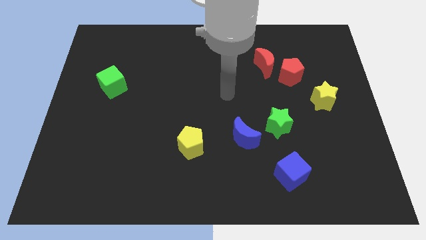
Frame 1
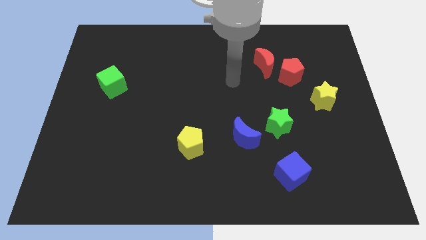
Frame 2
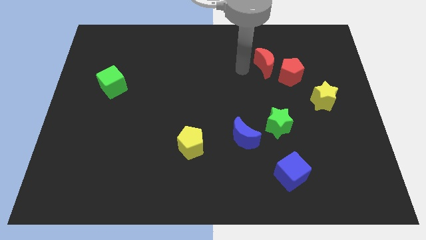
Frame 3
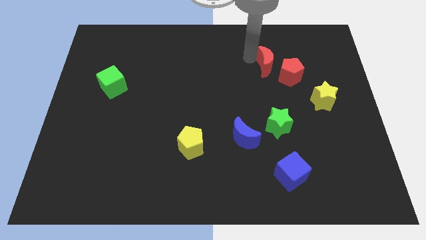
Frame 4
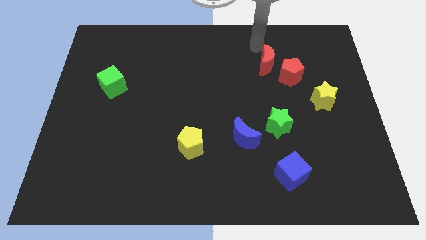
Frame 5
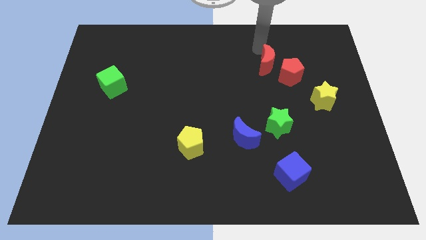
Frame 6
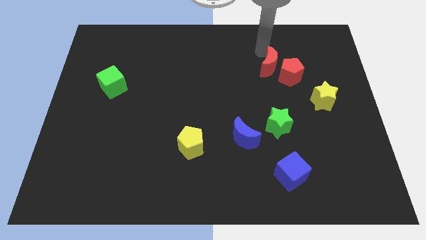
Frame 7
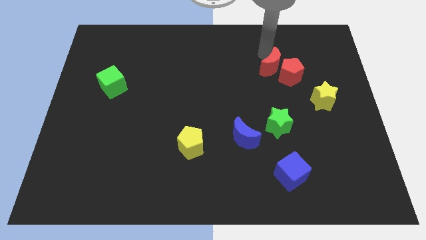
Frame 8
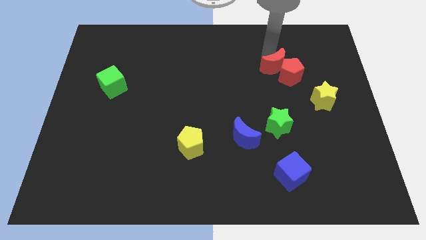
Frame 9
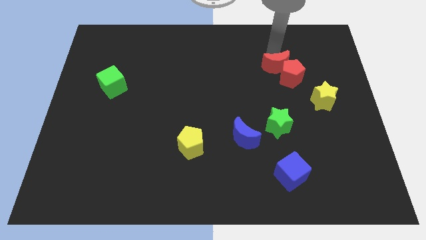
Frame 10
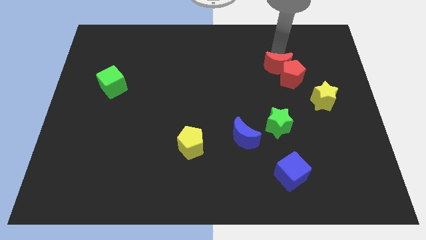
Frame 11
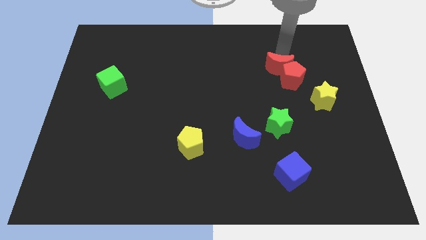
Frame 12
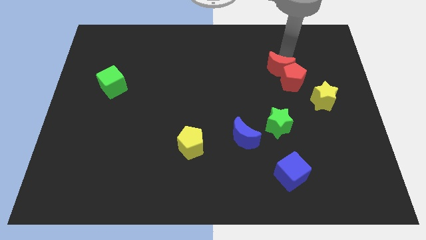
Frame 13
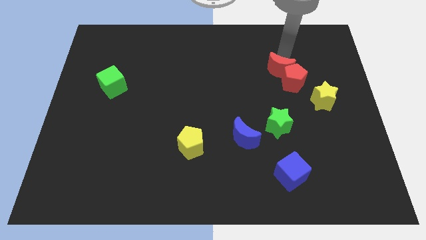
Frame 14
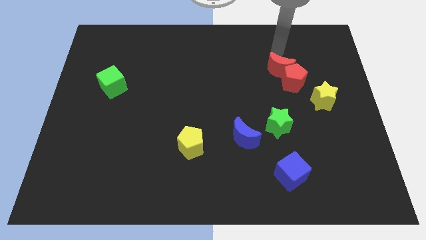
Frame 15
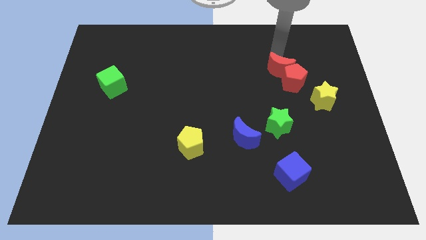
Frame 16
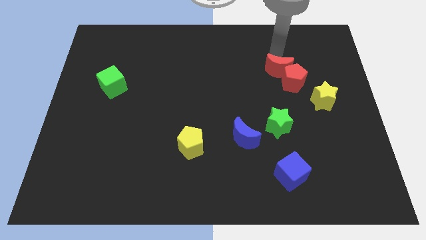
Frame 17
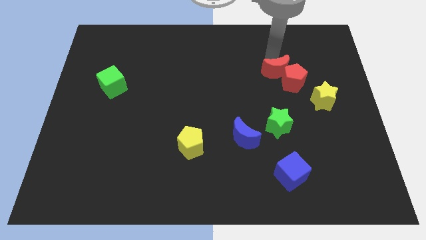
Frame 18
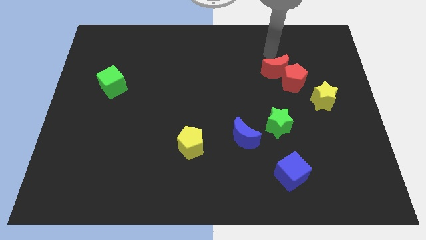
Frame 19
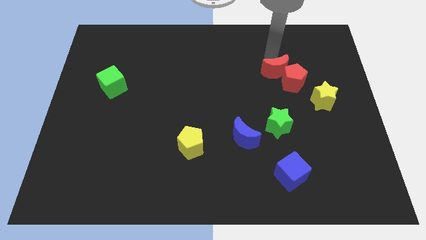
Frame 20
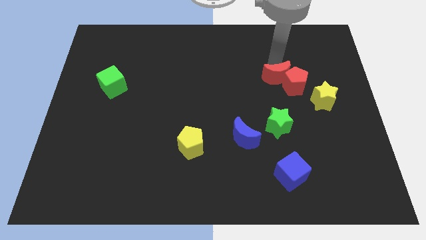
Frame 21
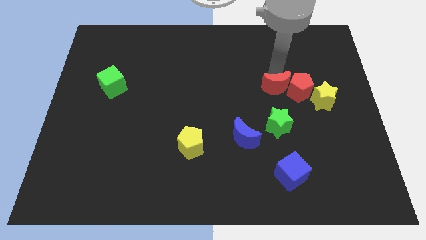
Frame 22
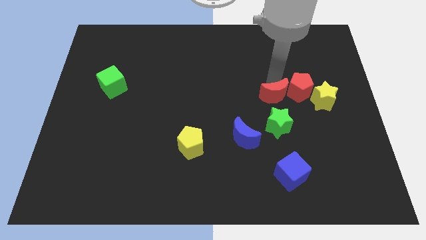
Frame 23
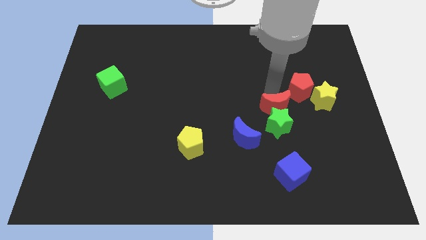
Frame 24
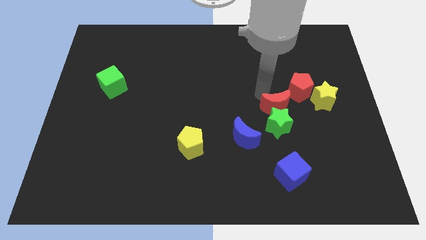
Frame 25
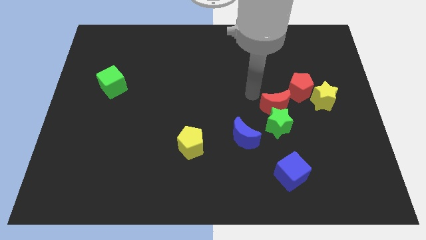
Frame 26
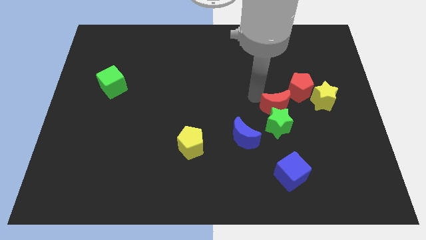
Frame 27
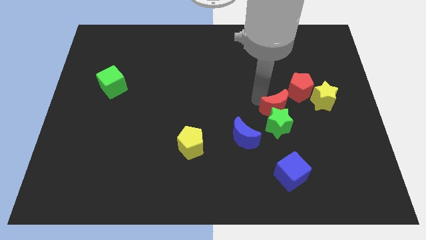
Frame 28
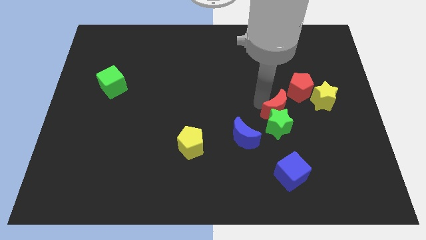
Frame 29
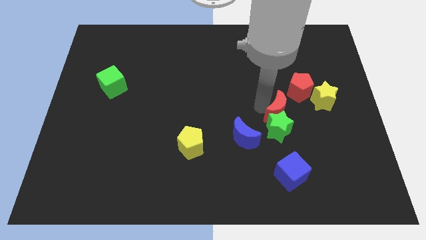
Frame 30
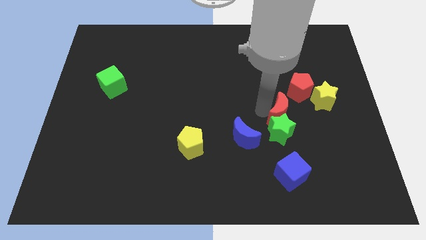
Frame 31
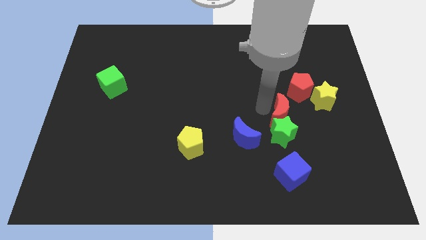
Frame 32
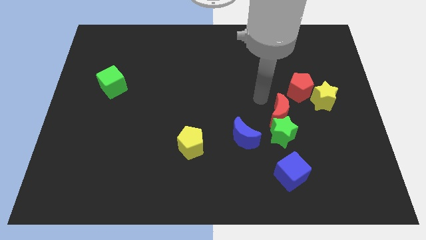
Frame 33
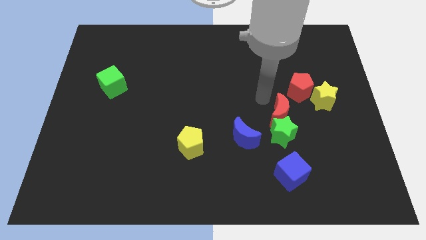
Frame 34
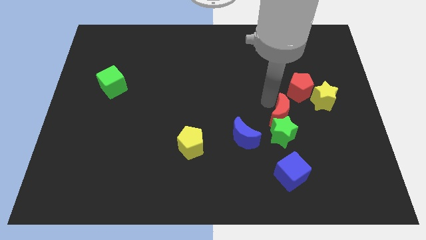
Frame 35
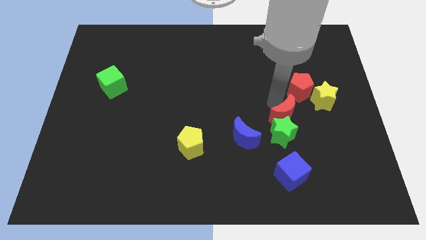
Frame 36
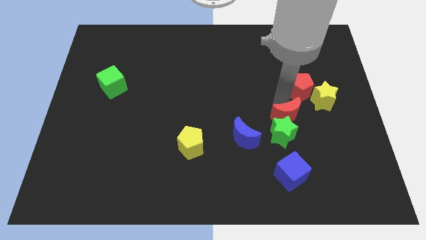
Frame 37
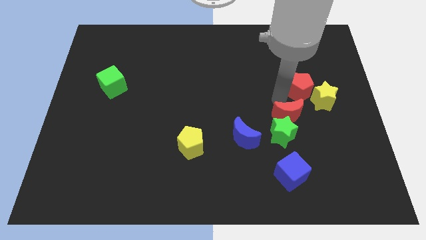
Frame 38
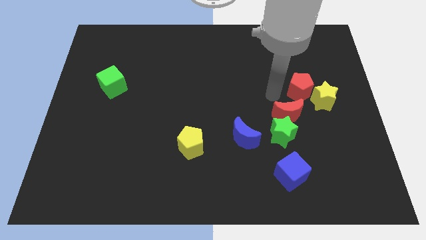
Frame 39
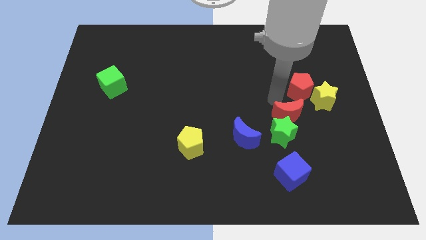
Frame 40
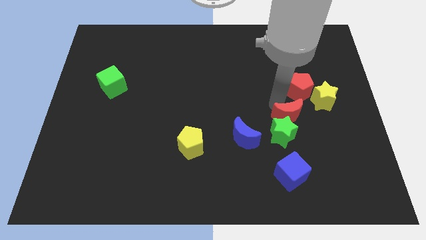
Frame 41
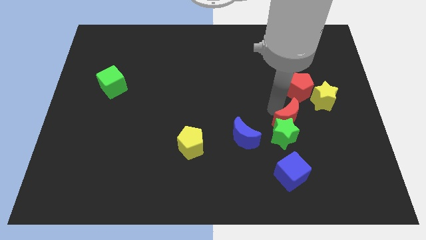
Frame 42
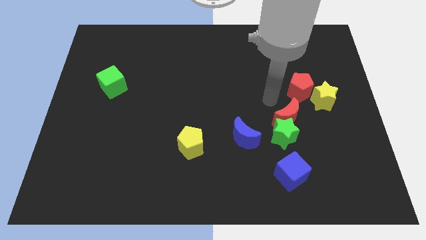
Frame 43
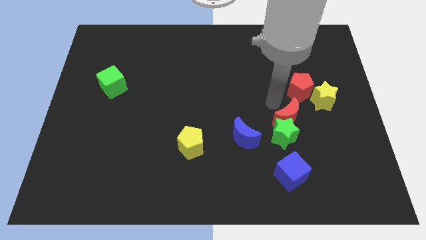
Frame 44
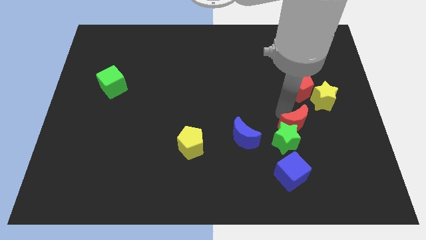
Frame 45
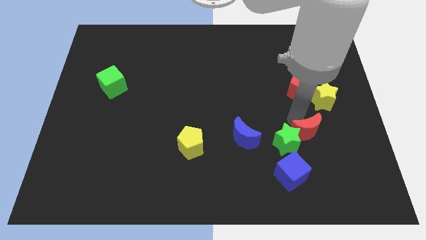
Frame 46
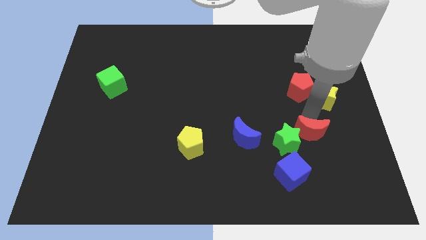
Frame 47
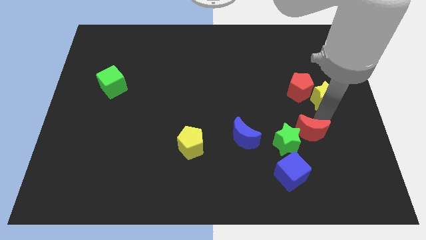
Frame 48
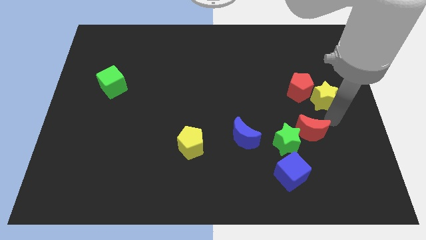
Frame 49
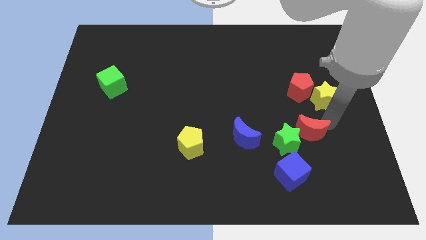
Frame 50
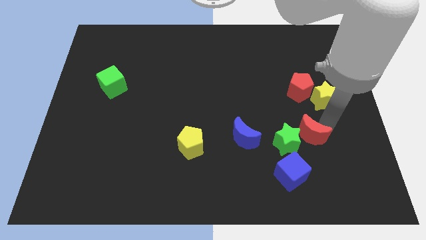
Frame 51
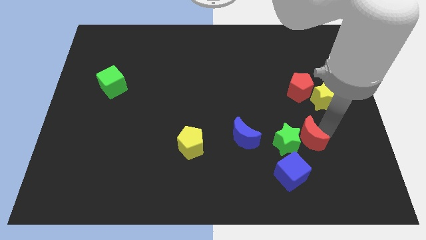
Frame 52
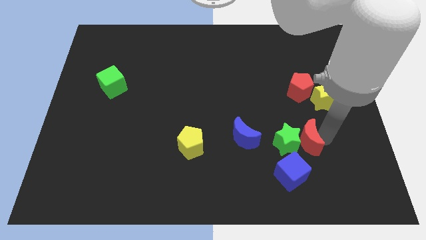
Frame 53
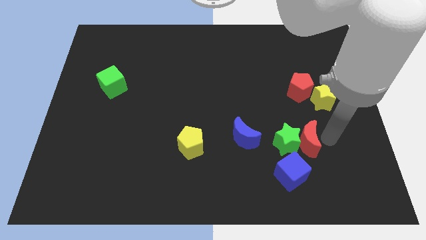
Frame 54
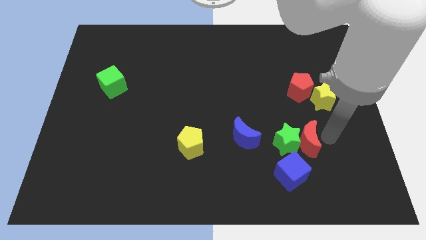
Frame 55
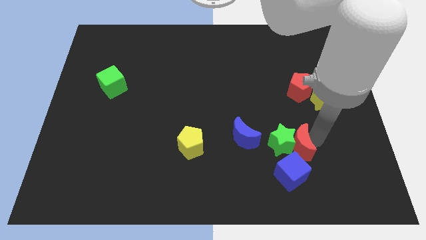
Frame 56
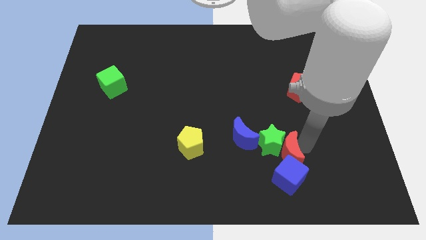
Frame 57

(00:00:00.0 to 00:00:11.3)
put the red moon to the top left of the blue cube

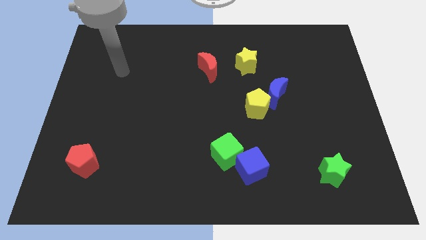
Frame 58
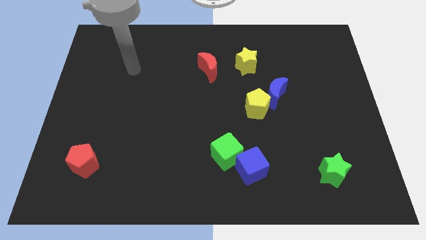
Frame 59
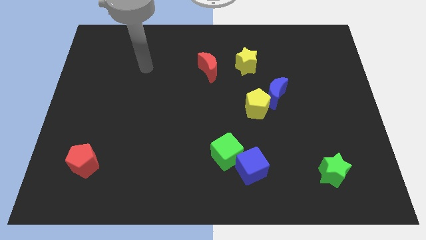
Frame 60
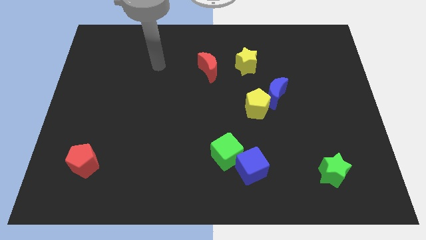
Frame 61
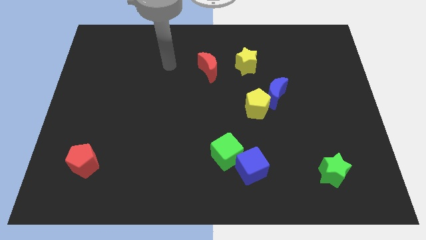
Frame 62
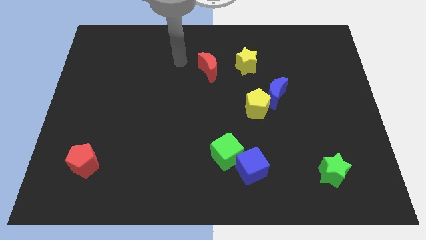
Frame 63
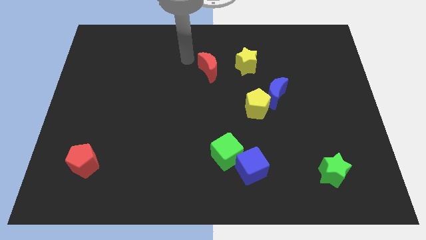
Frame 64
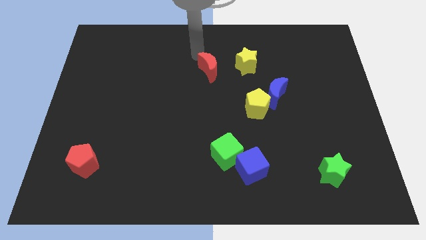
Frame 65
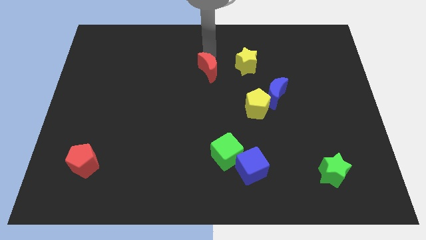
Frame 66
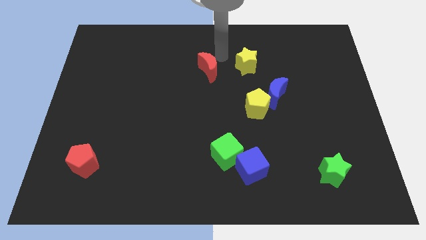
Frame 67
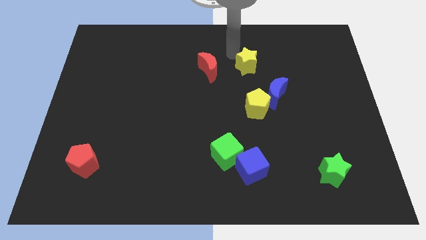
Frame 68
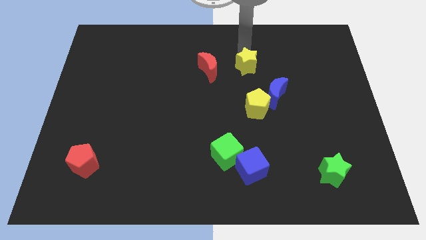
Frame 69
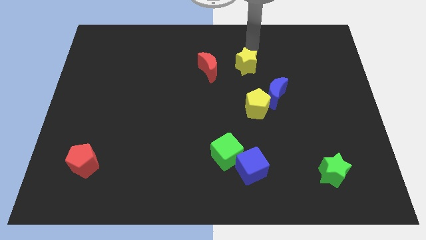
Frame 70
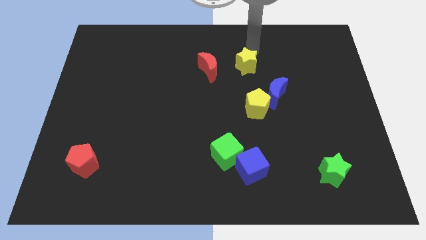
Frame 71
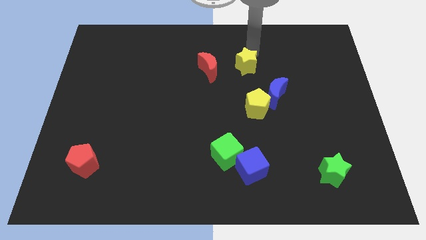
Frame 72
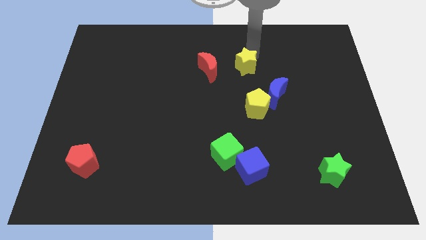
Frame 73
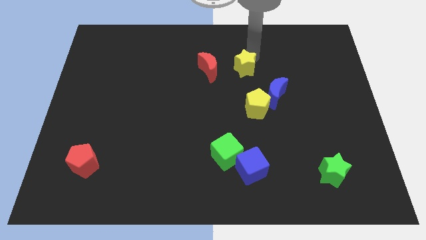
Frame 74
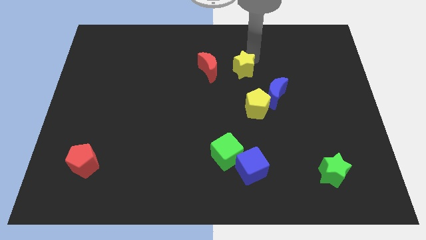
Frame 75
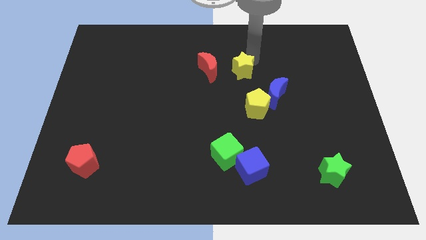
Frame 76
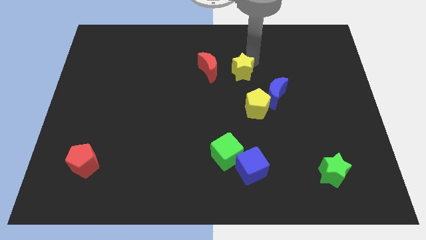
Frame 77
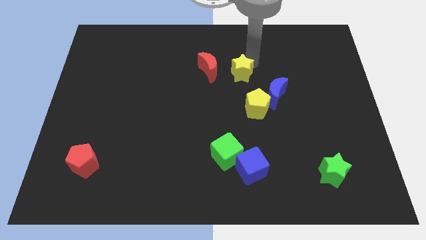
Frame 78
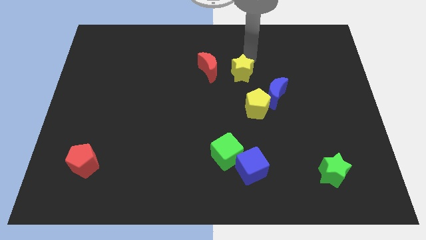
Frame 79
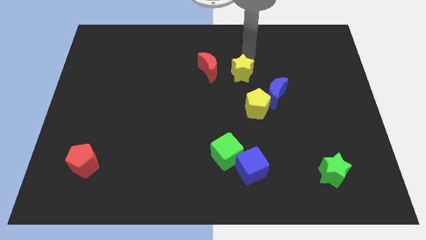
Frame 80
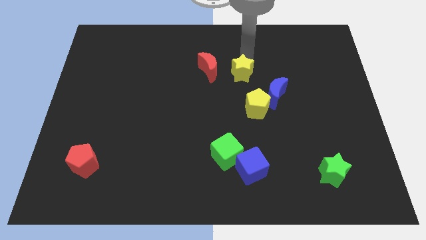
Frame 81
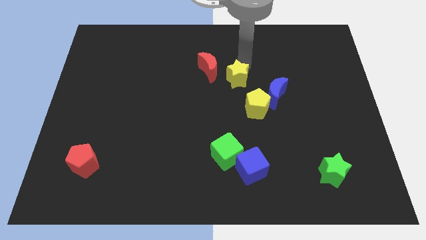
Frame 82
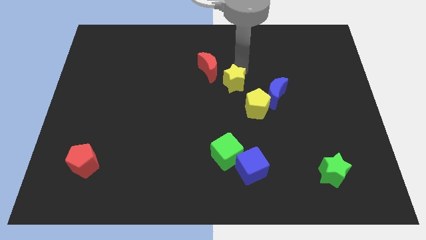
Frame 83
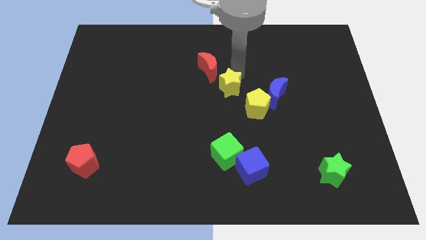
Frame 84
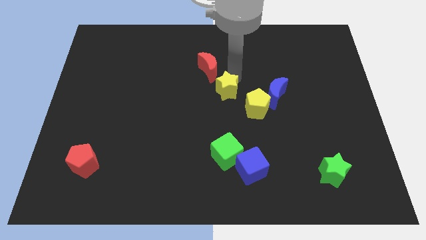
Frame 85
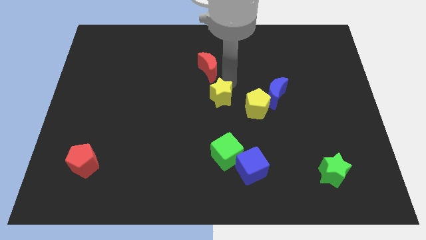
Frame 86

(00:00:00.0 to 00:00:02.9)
put the yellow star above the green cube
